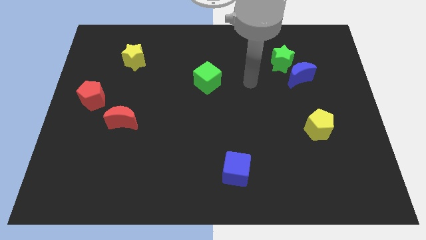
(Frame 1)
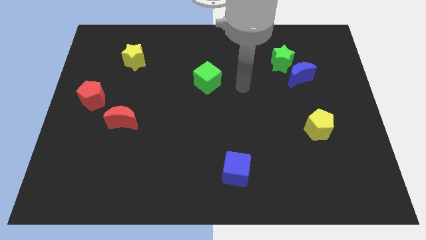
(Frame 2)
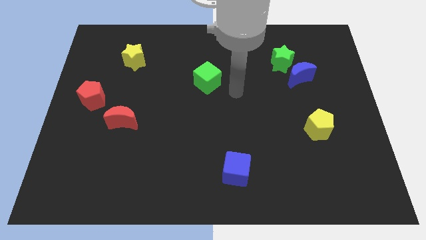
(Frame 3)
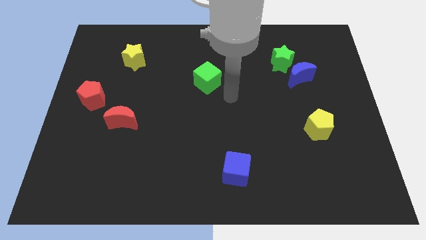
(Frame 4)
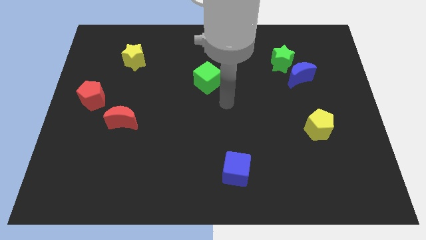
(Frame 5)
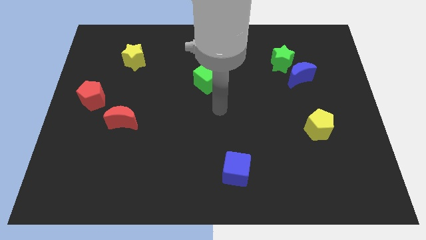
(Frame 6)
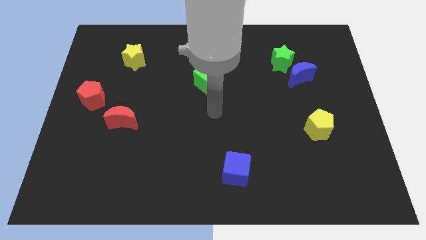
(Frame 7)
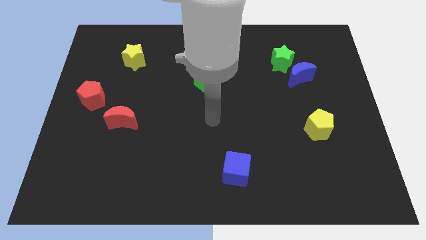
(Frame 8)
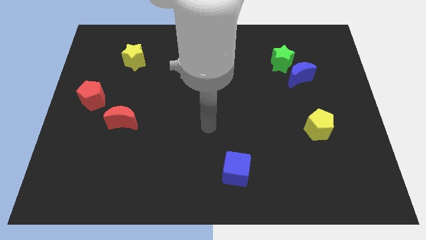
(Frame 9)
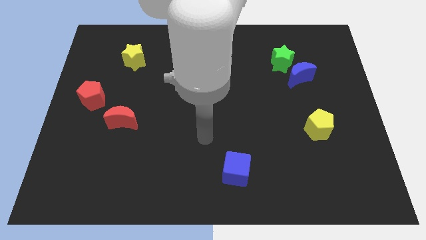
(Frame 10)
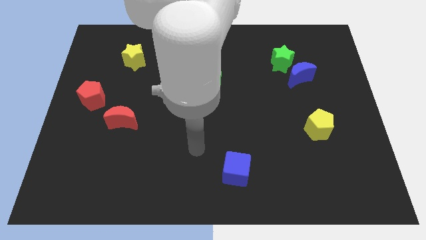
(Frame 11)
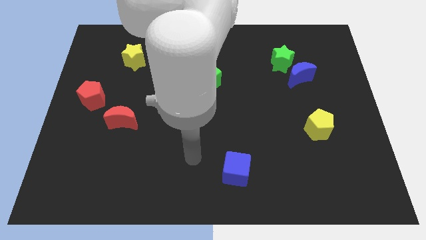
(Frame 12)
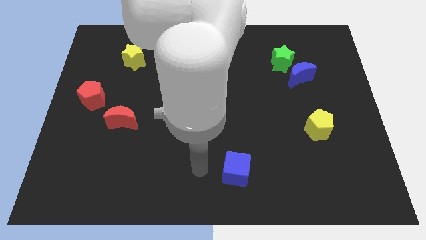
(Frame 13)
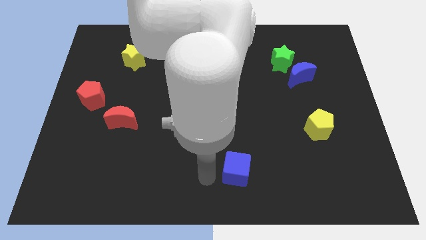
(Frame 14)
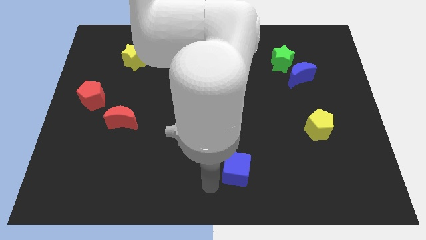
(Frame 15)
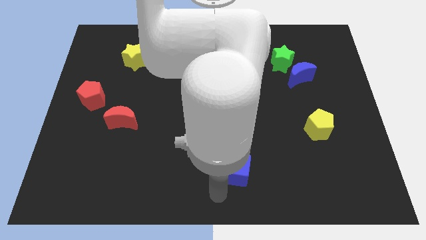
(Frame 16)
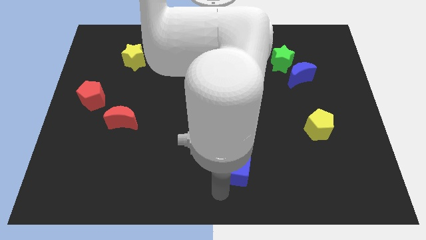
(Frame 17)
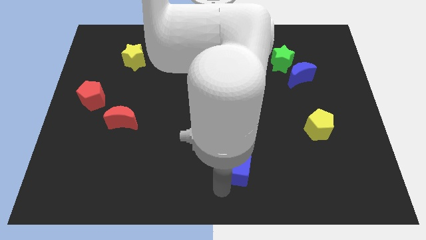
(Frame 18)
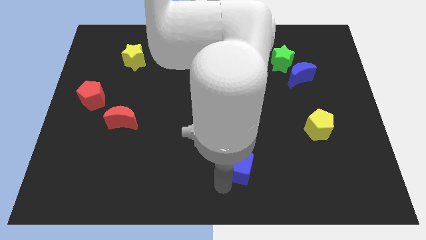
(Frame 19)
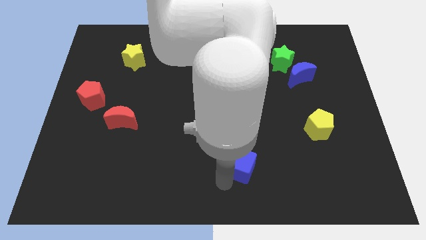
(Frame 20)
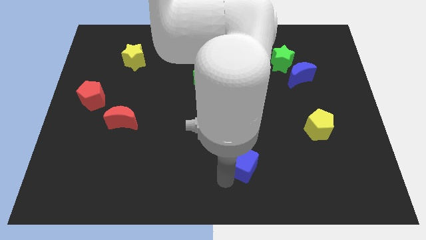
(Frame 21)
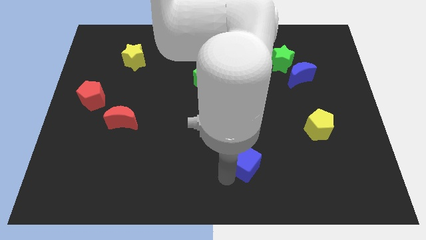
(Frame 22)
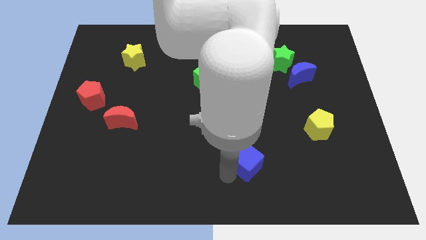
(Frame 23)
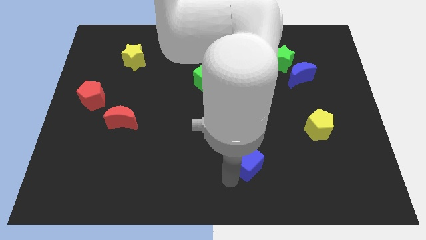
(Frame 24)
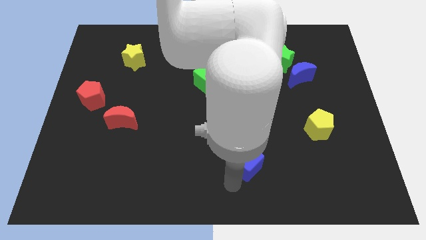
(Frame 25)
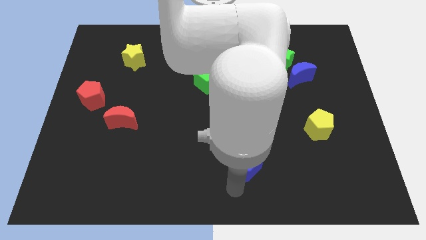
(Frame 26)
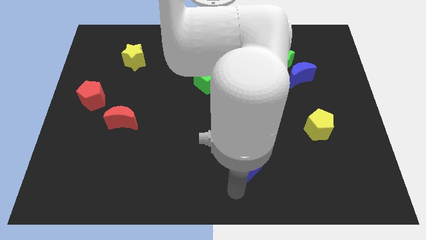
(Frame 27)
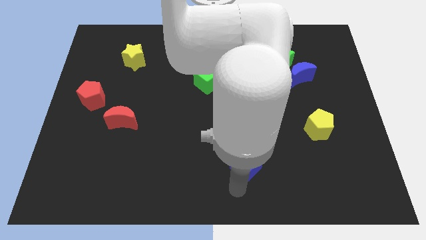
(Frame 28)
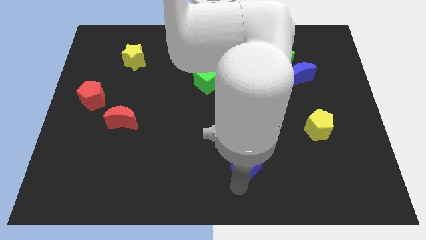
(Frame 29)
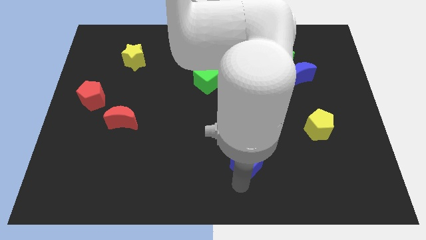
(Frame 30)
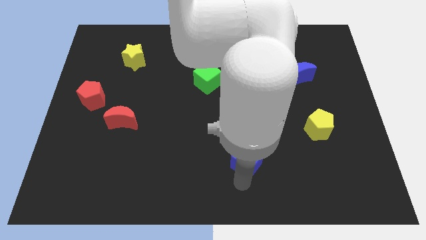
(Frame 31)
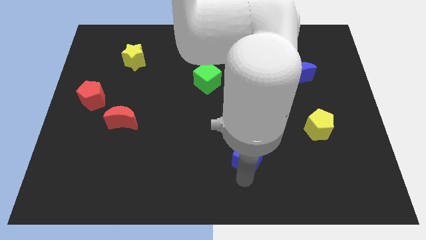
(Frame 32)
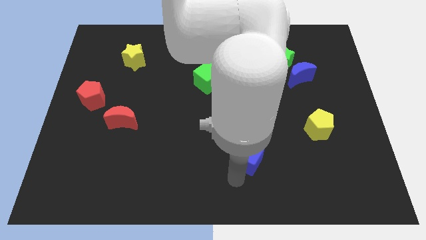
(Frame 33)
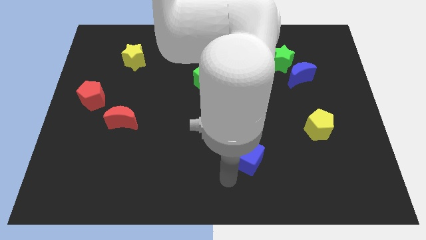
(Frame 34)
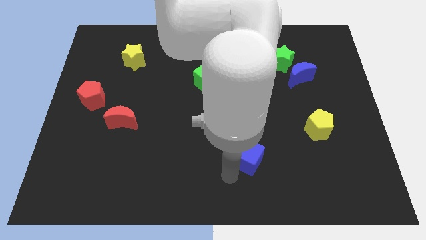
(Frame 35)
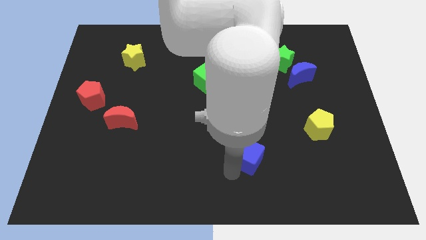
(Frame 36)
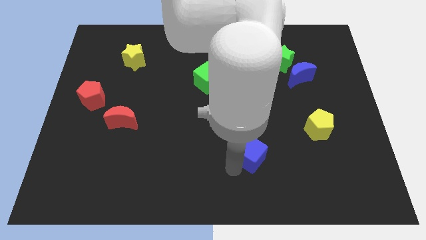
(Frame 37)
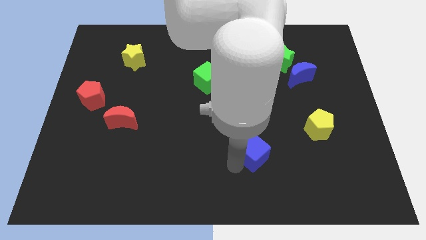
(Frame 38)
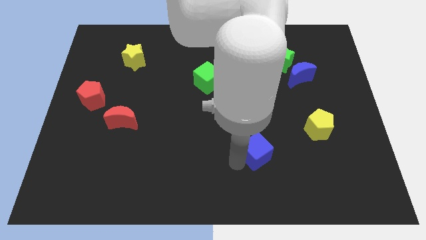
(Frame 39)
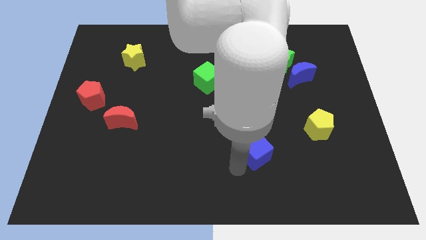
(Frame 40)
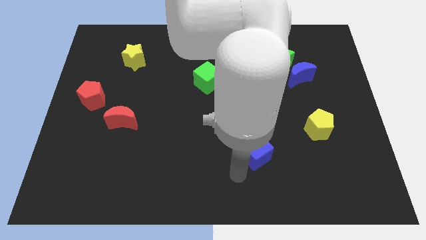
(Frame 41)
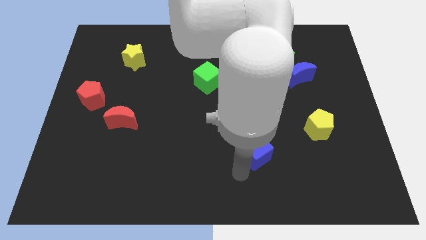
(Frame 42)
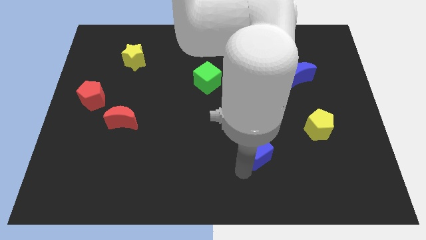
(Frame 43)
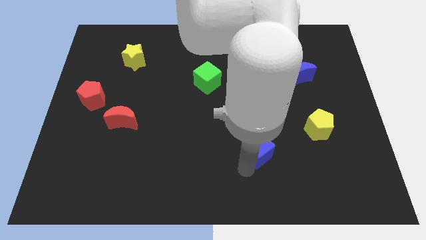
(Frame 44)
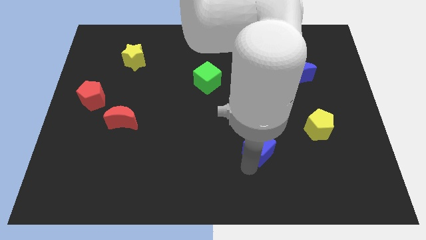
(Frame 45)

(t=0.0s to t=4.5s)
slightly slide the blue cube up and right

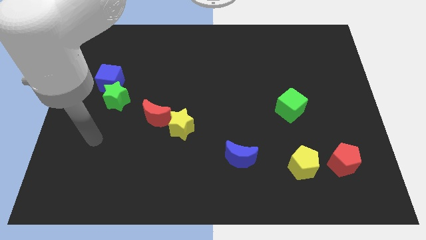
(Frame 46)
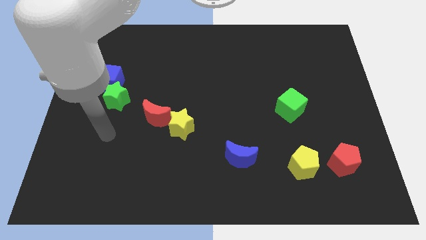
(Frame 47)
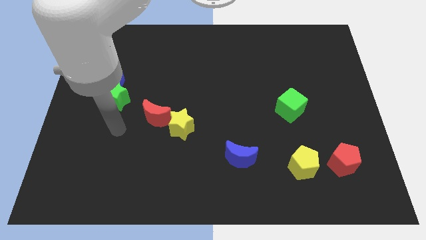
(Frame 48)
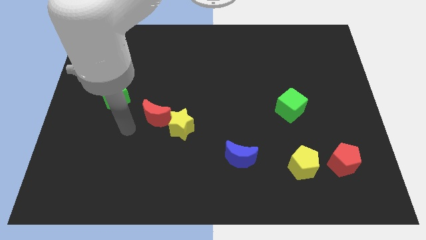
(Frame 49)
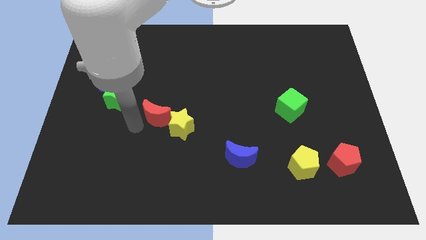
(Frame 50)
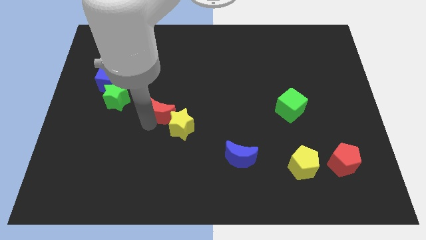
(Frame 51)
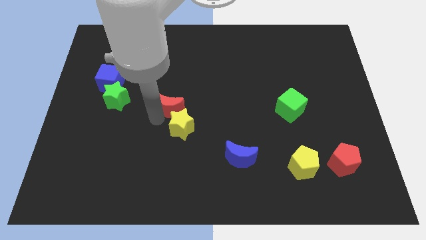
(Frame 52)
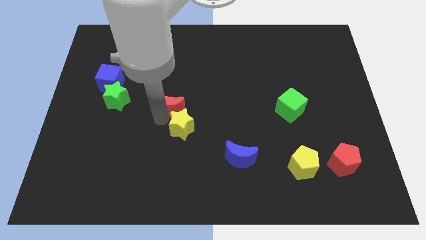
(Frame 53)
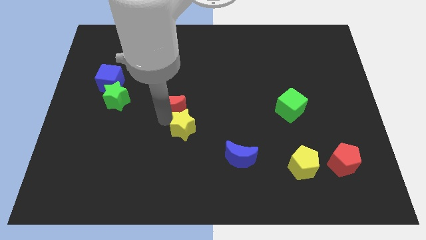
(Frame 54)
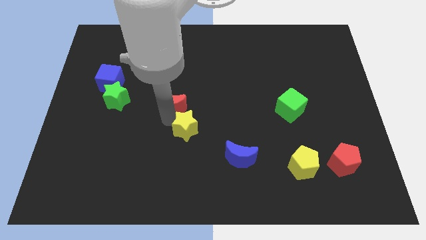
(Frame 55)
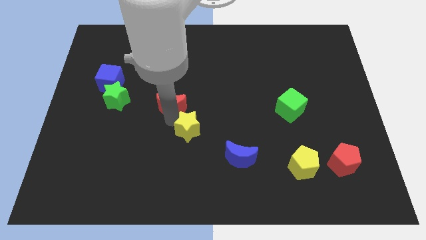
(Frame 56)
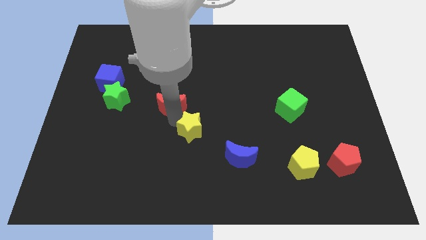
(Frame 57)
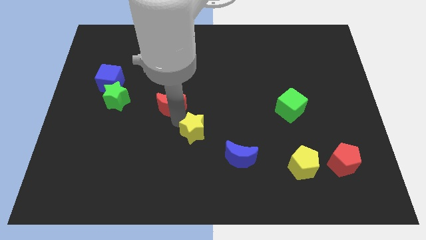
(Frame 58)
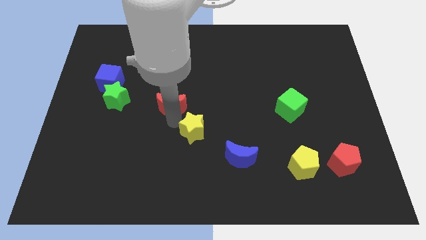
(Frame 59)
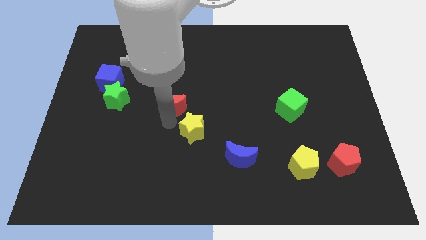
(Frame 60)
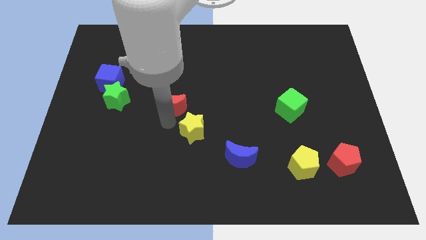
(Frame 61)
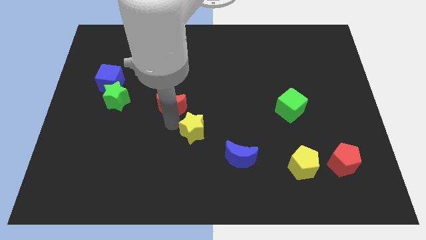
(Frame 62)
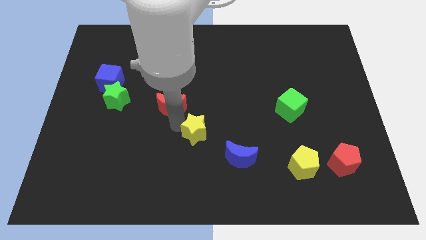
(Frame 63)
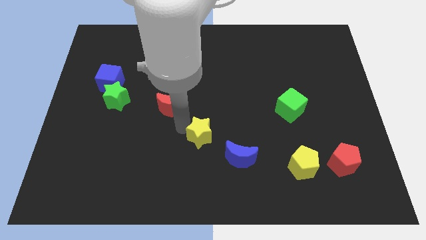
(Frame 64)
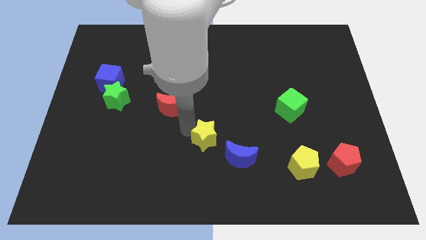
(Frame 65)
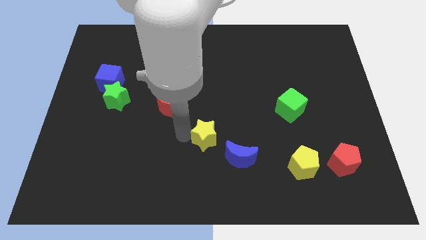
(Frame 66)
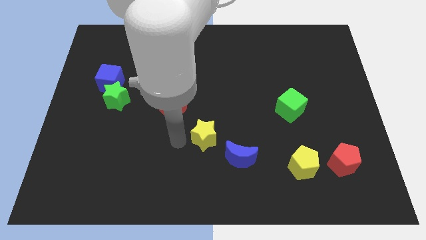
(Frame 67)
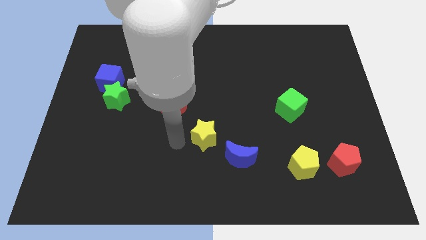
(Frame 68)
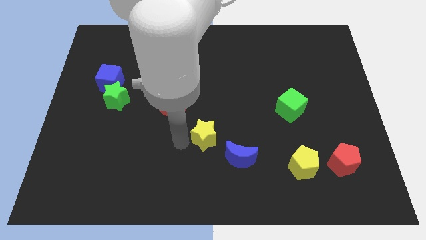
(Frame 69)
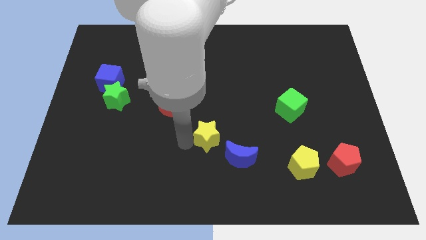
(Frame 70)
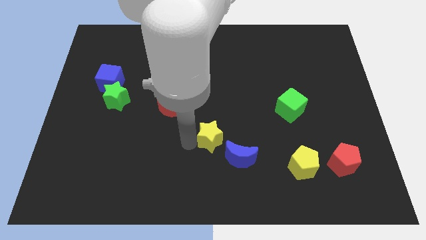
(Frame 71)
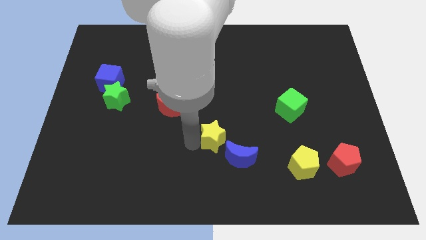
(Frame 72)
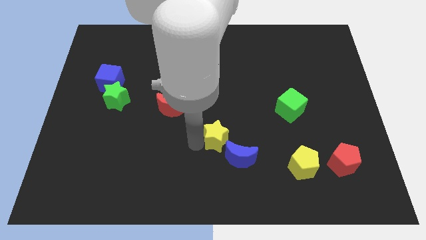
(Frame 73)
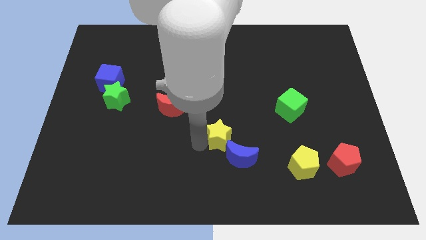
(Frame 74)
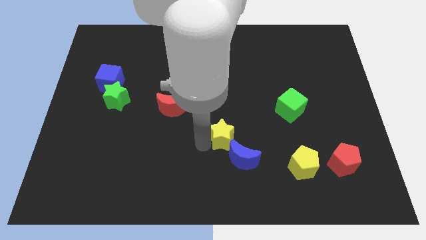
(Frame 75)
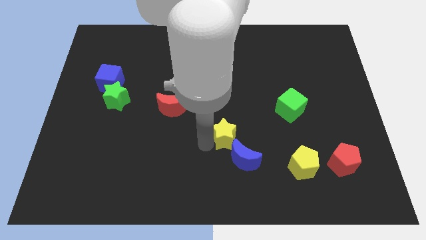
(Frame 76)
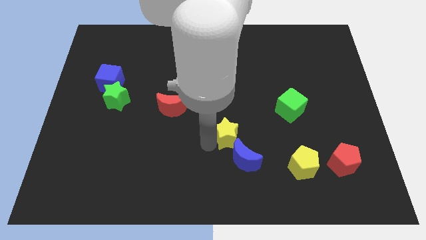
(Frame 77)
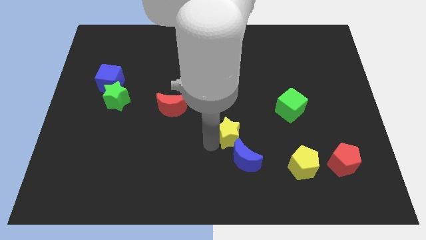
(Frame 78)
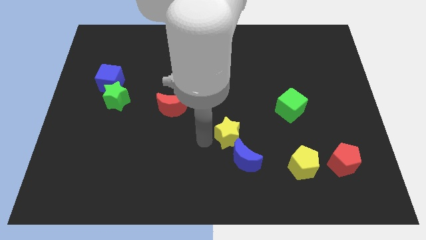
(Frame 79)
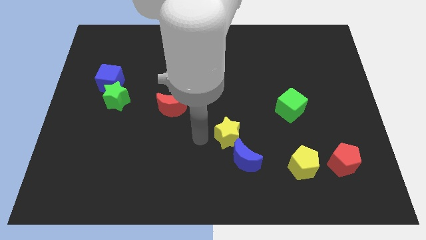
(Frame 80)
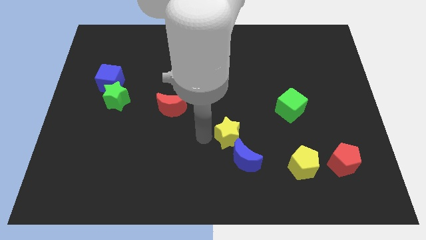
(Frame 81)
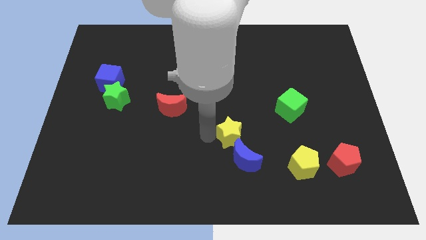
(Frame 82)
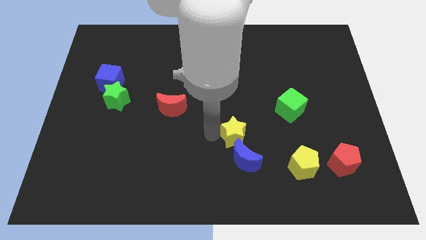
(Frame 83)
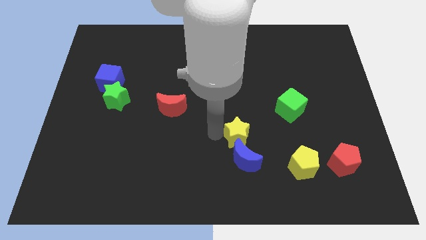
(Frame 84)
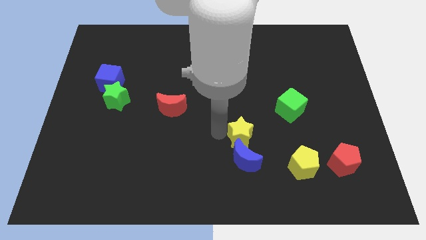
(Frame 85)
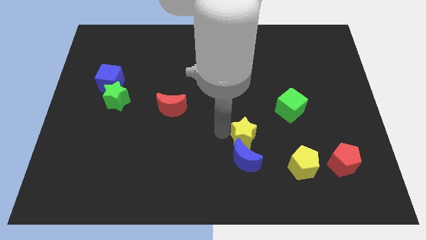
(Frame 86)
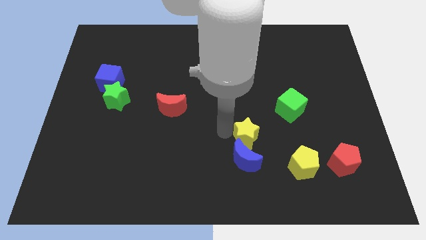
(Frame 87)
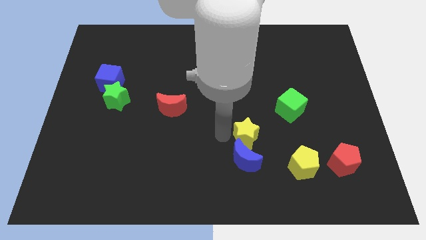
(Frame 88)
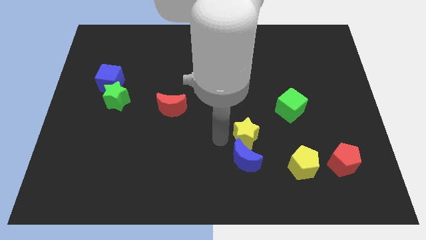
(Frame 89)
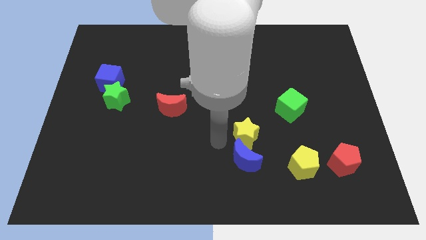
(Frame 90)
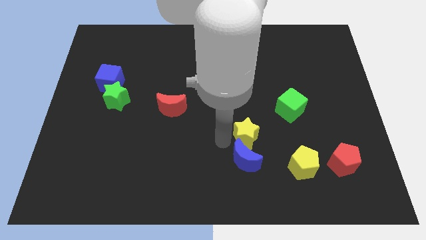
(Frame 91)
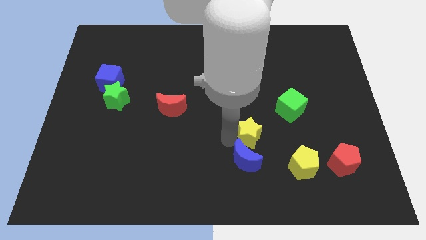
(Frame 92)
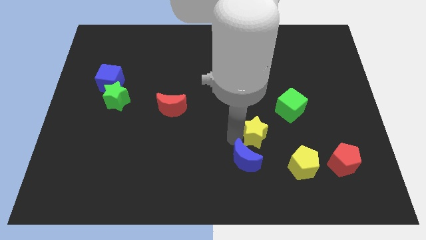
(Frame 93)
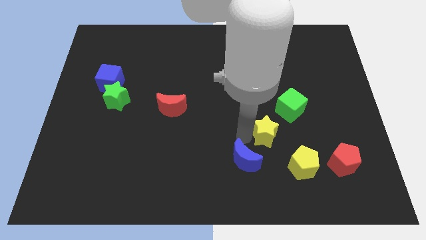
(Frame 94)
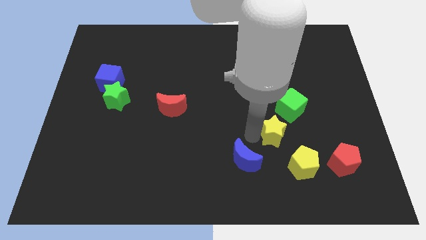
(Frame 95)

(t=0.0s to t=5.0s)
push the yellow star to the right
